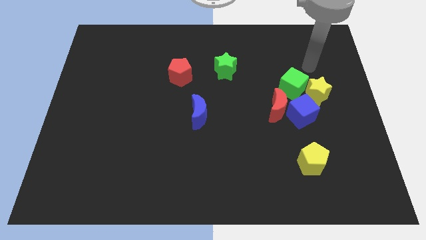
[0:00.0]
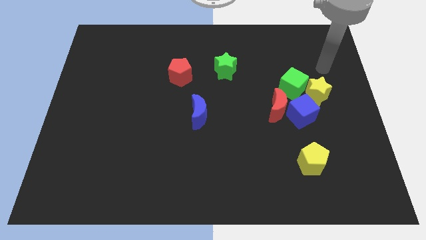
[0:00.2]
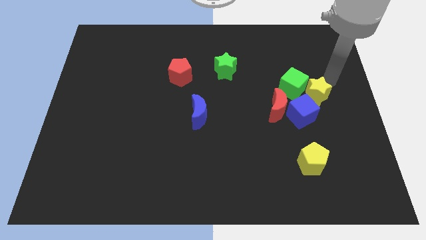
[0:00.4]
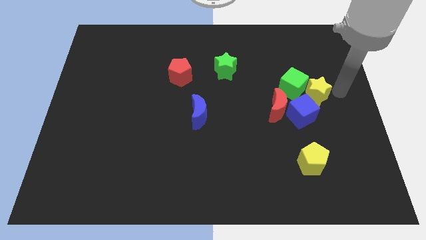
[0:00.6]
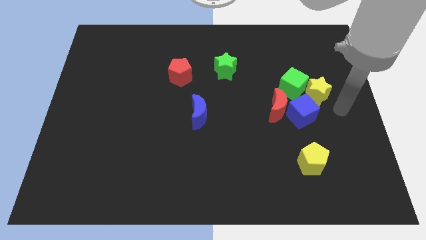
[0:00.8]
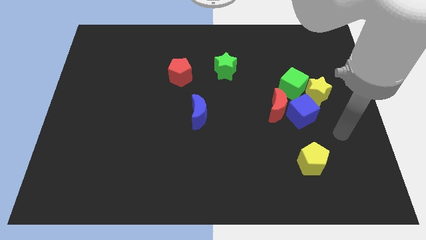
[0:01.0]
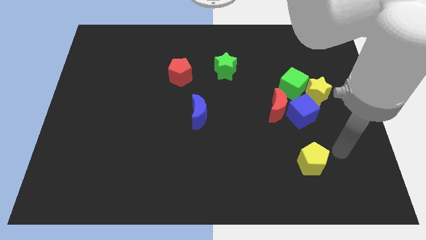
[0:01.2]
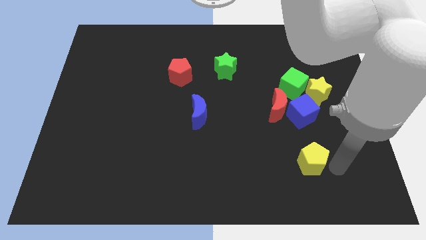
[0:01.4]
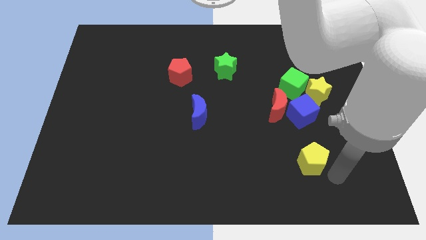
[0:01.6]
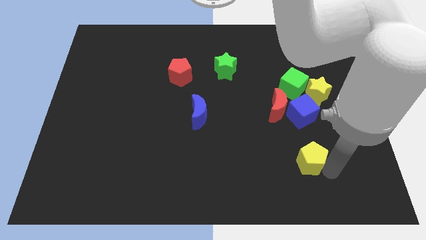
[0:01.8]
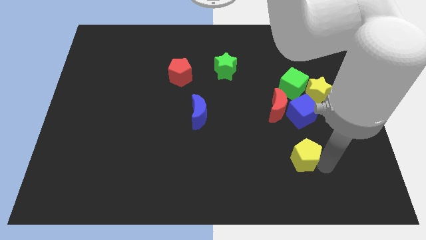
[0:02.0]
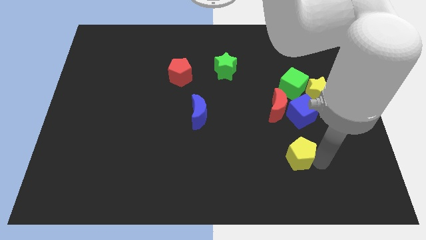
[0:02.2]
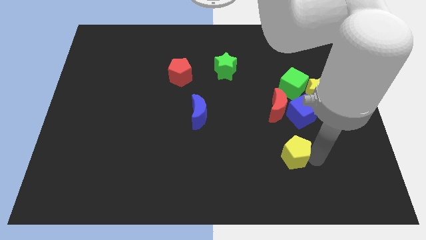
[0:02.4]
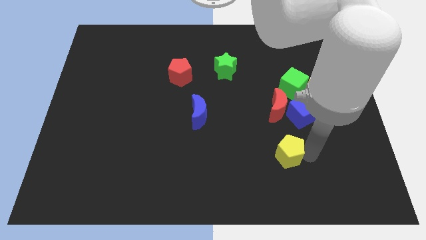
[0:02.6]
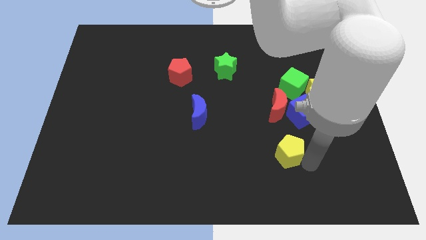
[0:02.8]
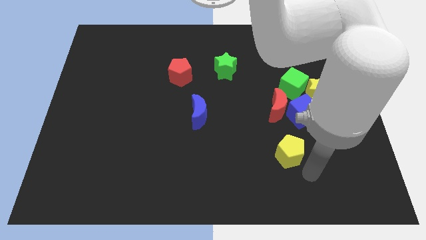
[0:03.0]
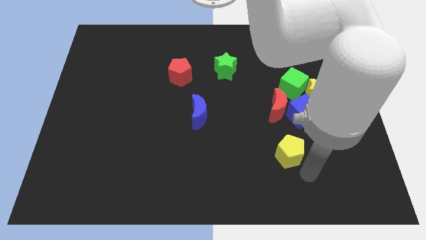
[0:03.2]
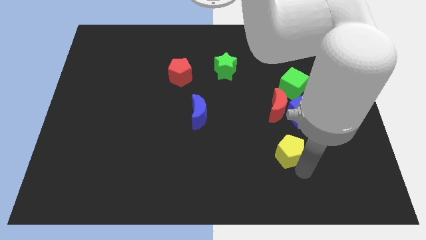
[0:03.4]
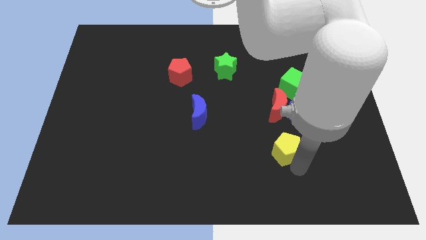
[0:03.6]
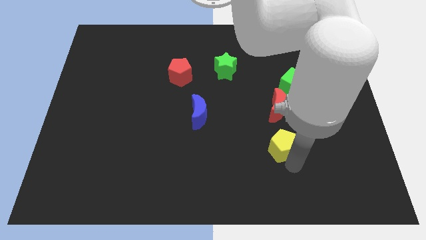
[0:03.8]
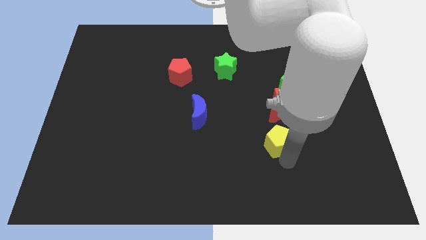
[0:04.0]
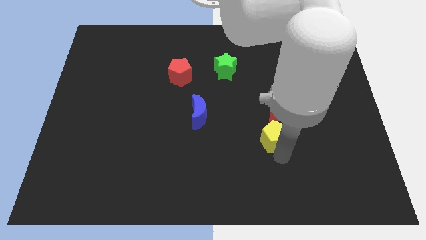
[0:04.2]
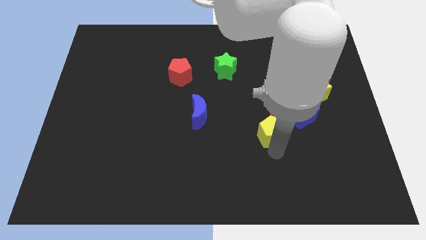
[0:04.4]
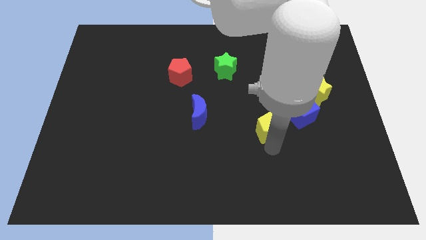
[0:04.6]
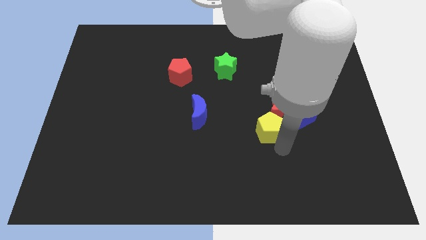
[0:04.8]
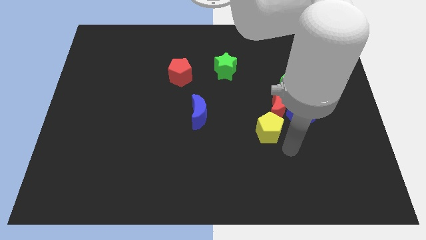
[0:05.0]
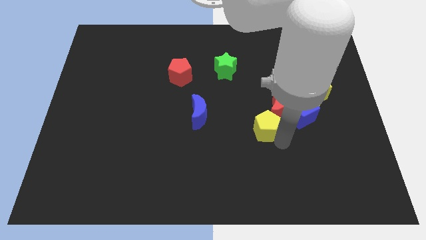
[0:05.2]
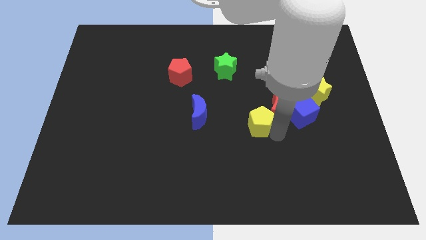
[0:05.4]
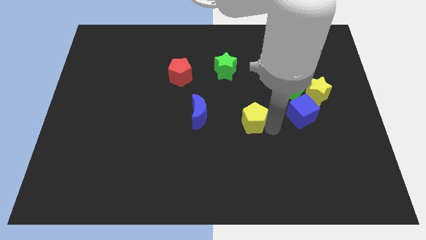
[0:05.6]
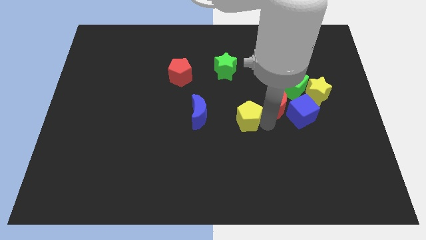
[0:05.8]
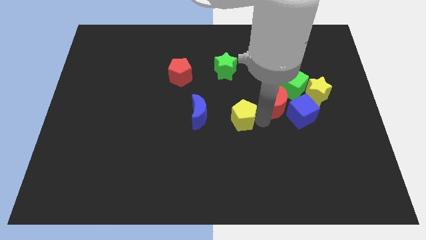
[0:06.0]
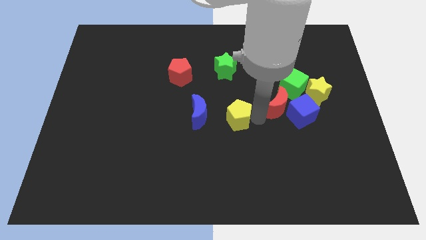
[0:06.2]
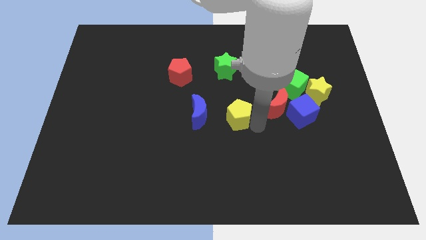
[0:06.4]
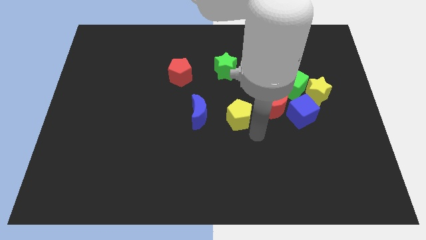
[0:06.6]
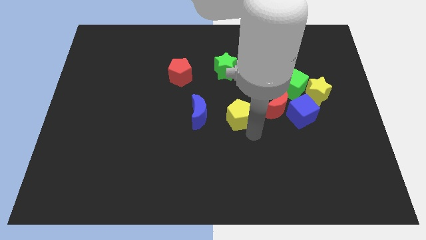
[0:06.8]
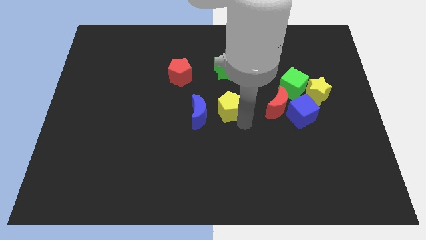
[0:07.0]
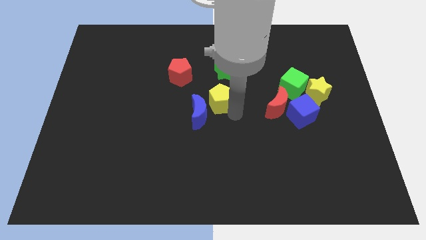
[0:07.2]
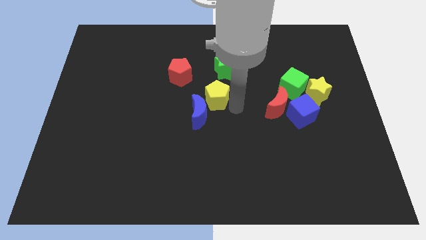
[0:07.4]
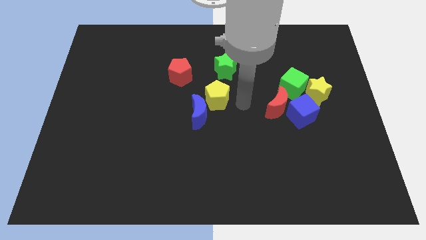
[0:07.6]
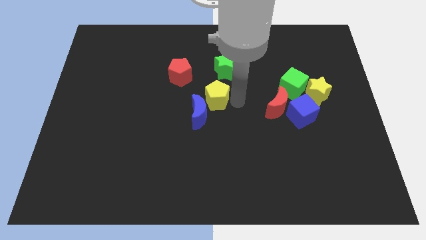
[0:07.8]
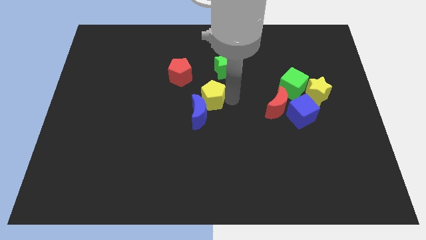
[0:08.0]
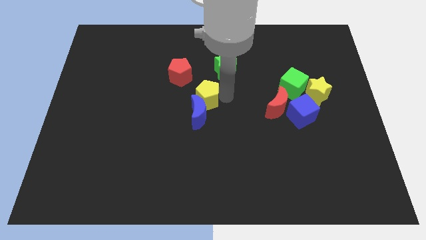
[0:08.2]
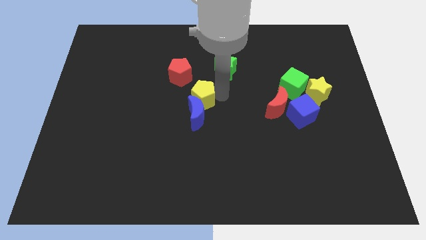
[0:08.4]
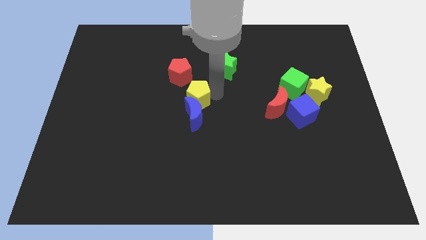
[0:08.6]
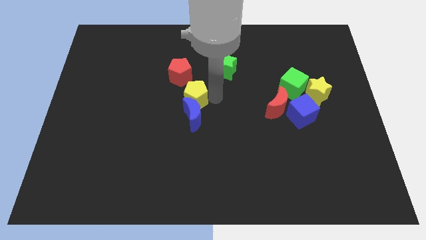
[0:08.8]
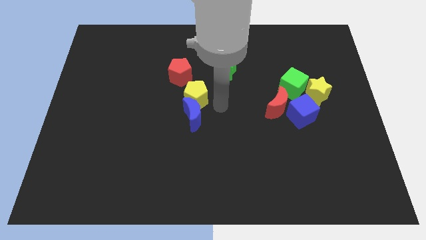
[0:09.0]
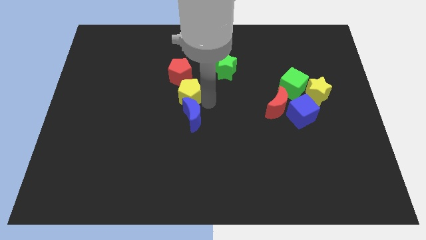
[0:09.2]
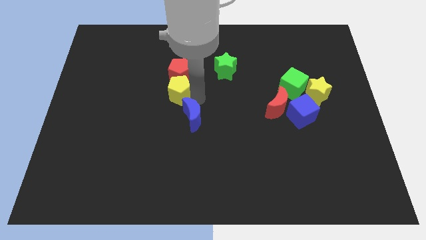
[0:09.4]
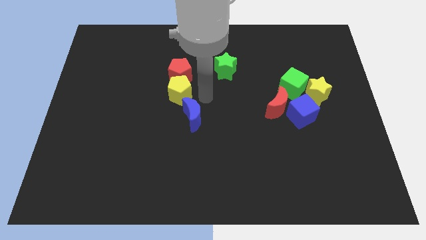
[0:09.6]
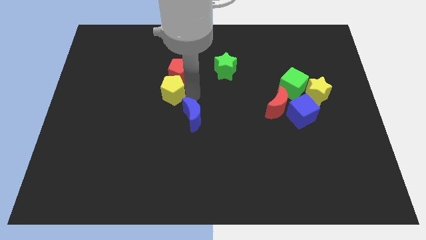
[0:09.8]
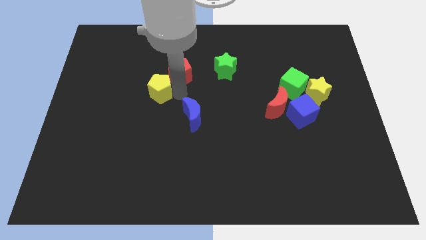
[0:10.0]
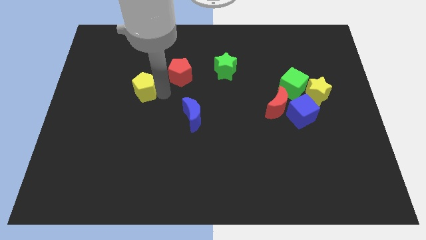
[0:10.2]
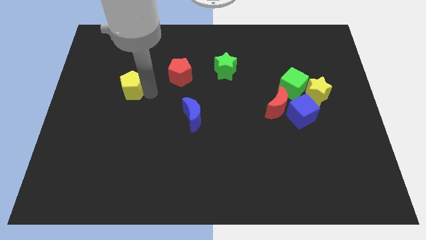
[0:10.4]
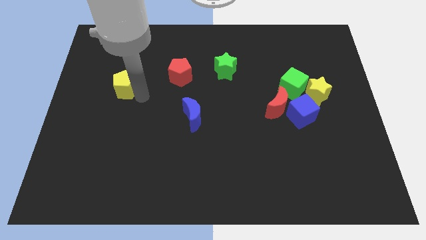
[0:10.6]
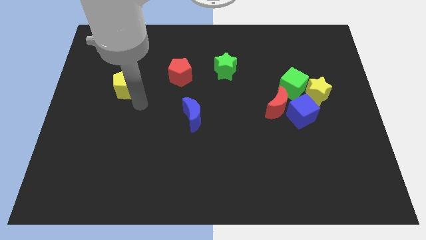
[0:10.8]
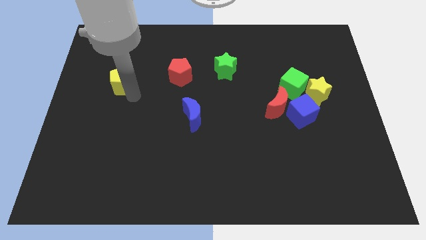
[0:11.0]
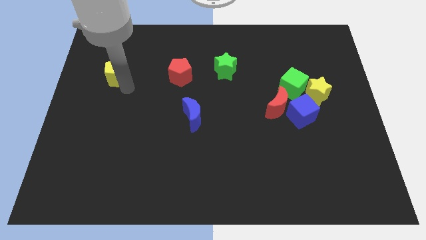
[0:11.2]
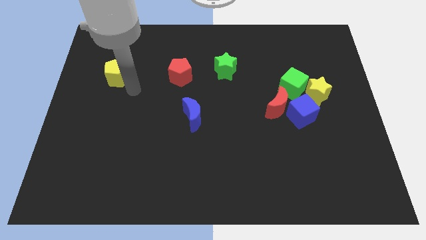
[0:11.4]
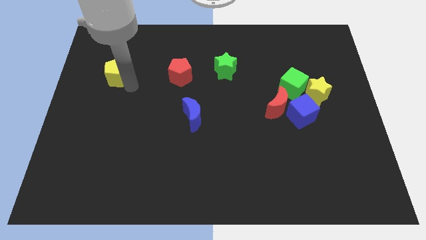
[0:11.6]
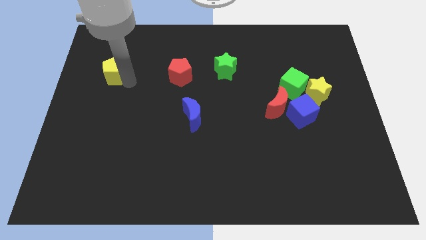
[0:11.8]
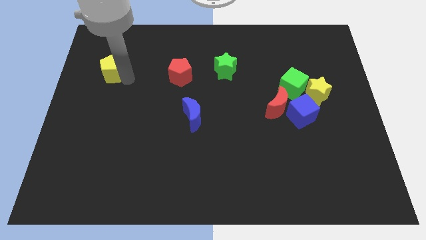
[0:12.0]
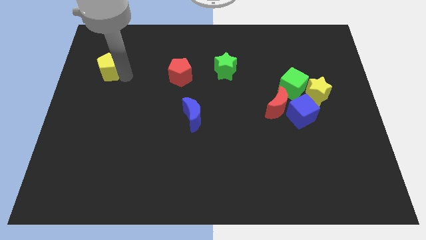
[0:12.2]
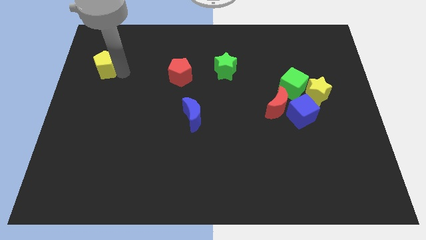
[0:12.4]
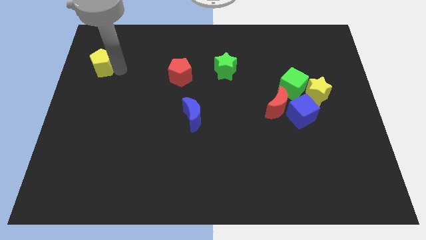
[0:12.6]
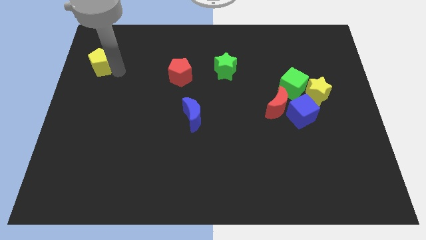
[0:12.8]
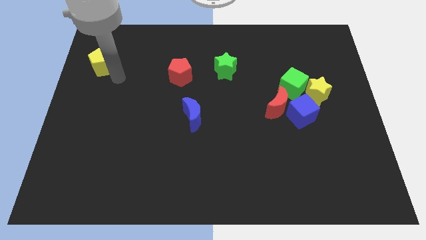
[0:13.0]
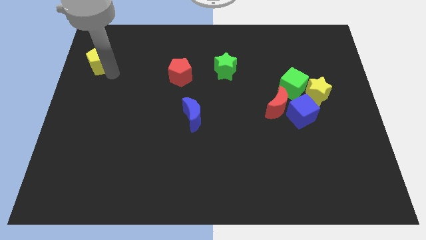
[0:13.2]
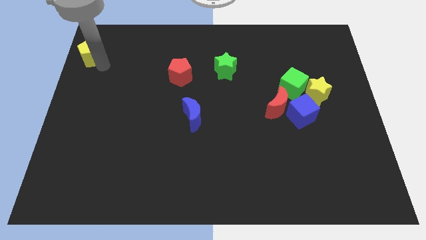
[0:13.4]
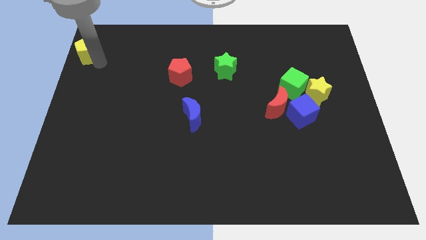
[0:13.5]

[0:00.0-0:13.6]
push the yellow pentagon to the top left of the board

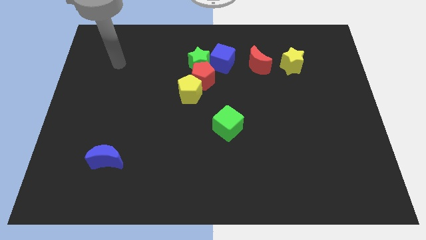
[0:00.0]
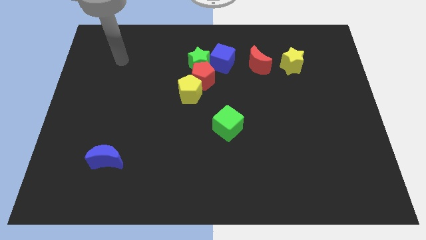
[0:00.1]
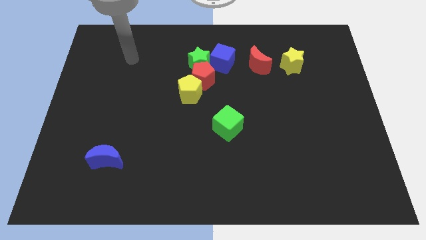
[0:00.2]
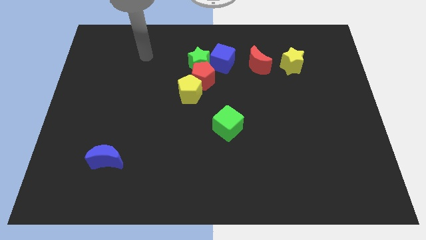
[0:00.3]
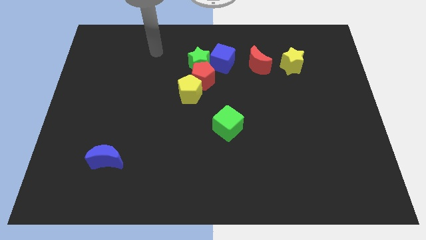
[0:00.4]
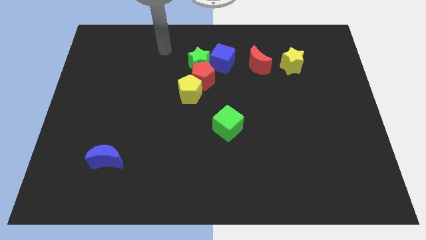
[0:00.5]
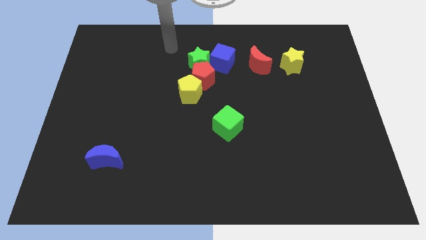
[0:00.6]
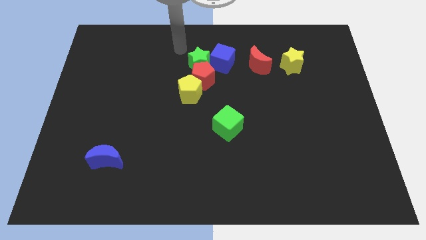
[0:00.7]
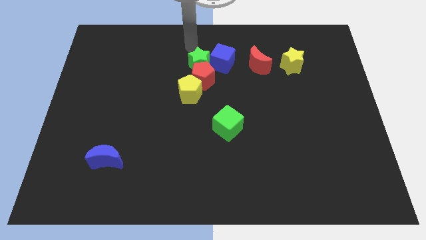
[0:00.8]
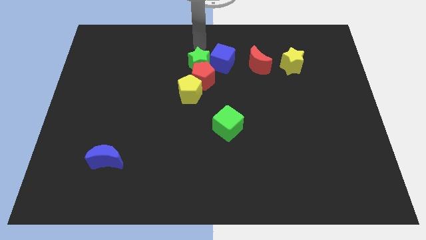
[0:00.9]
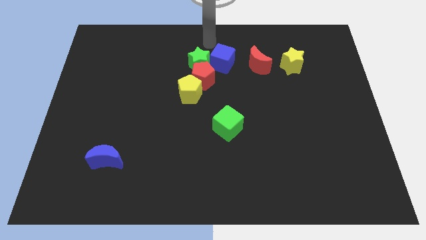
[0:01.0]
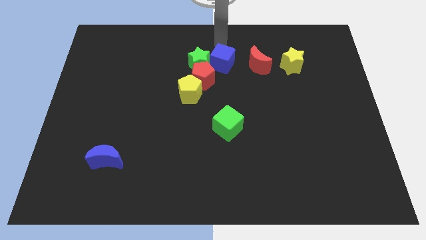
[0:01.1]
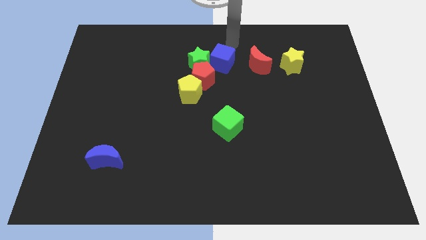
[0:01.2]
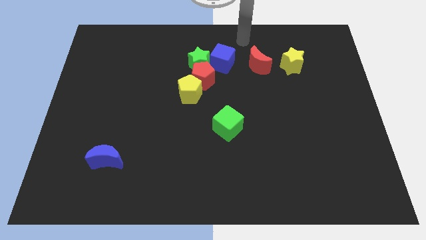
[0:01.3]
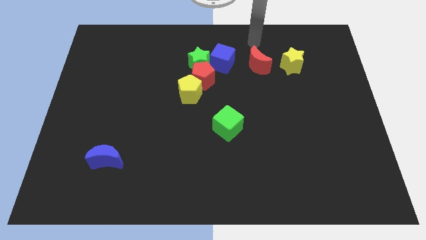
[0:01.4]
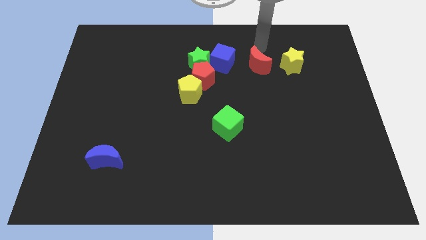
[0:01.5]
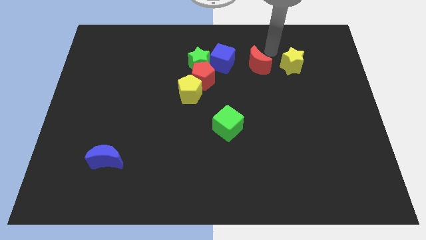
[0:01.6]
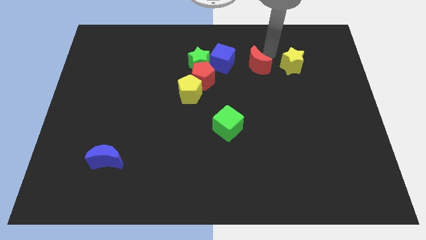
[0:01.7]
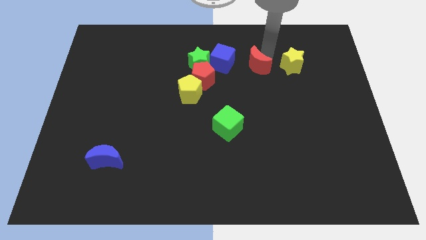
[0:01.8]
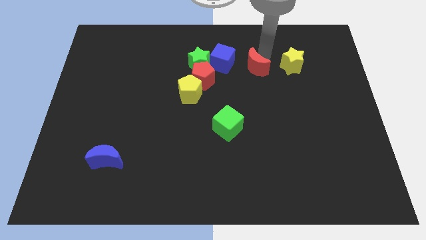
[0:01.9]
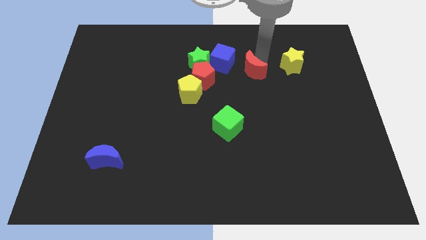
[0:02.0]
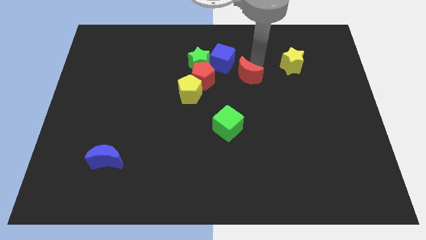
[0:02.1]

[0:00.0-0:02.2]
move the red moon to the center of the board
